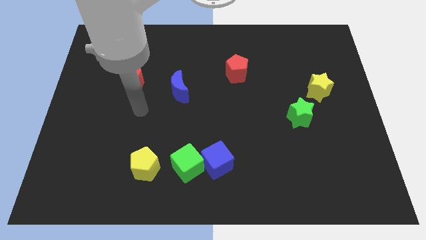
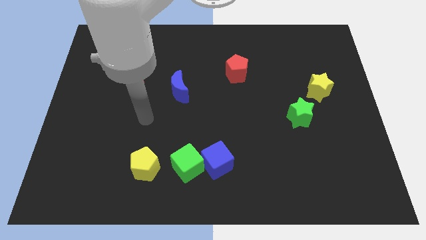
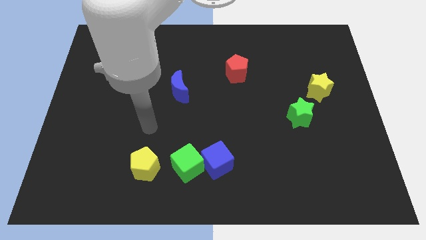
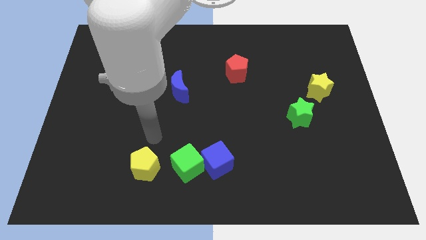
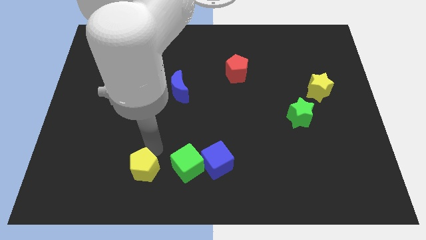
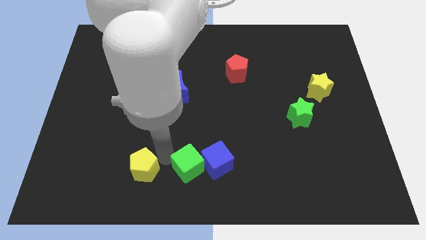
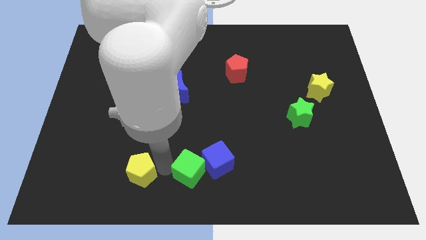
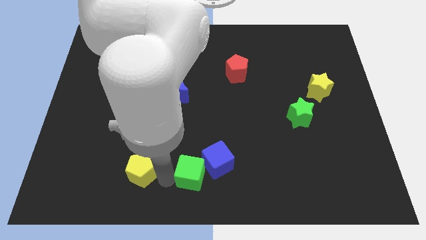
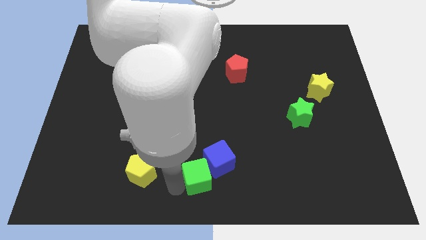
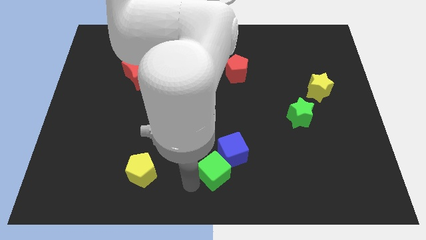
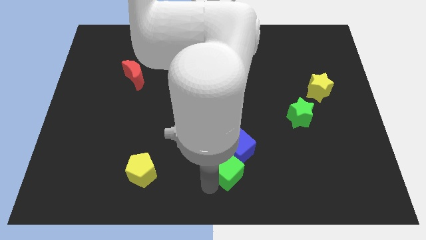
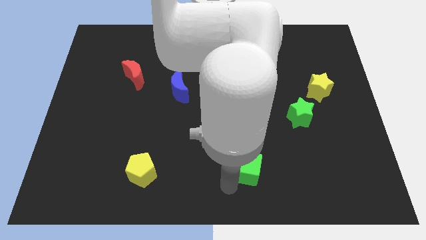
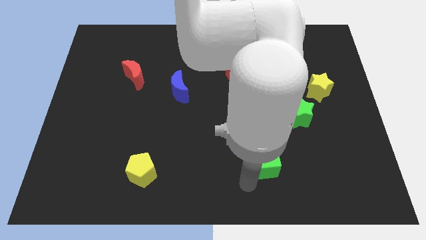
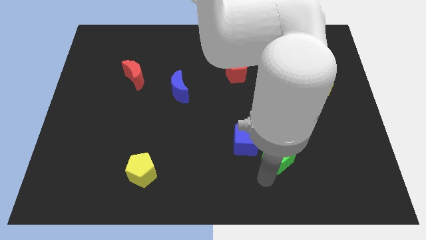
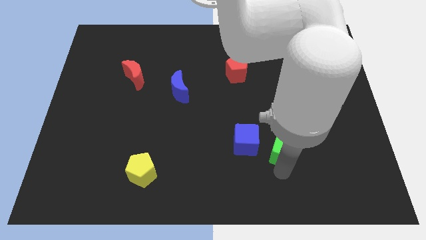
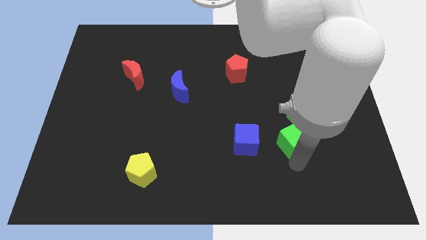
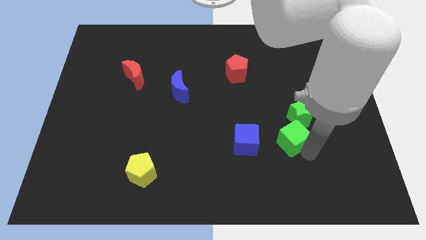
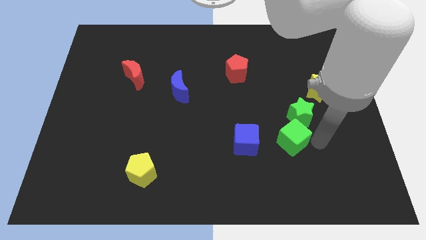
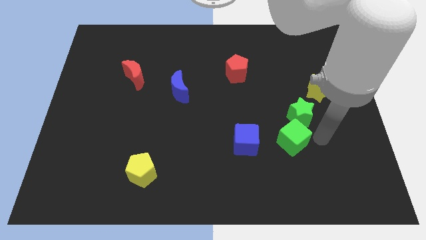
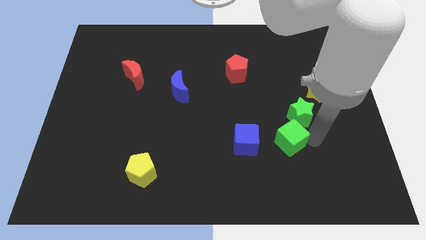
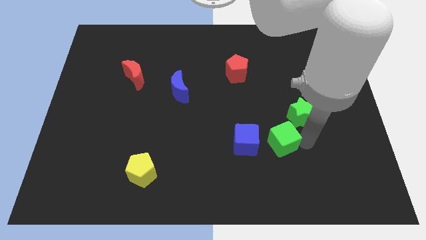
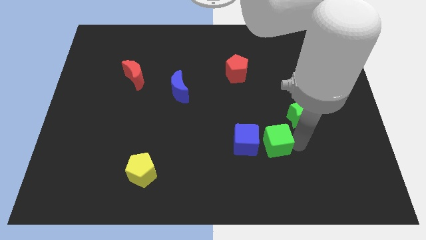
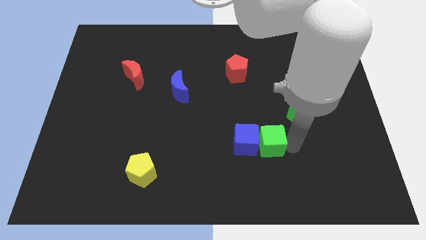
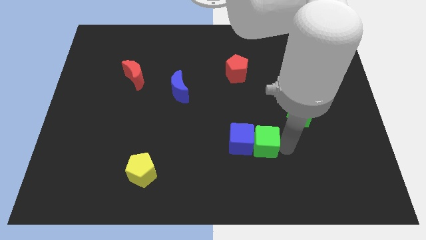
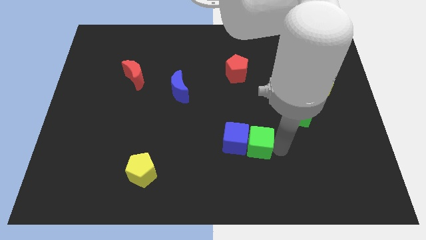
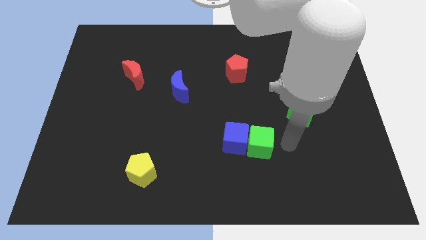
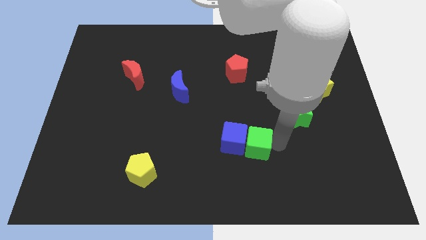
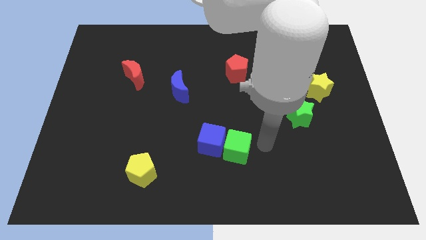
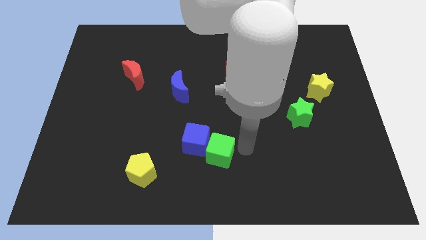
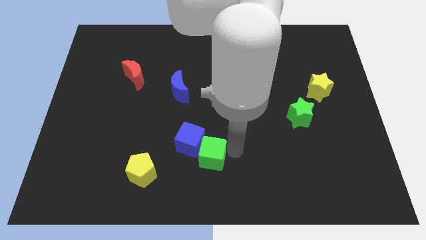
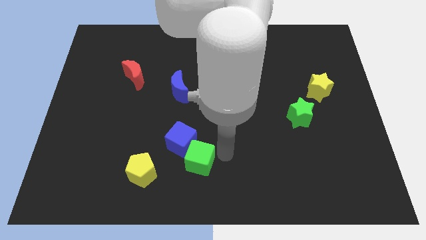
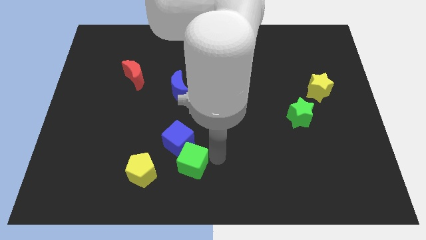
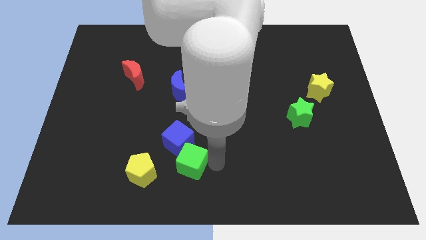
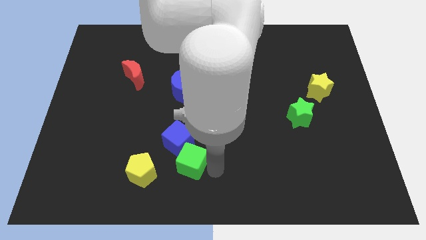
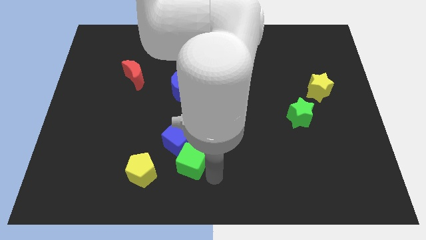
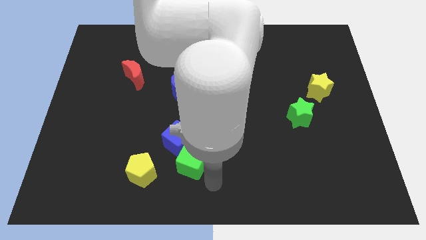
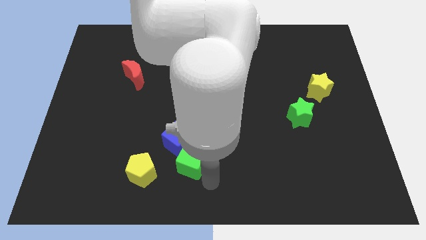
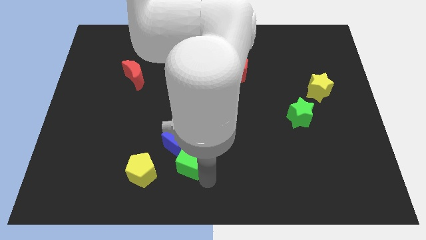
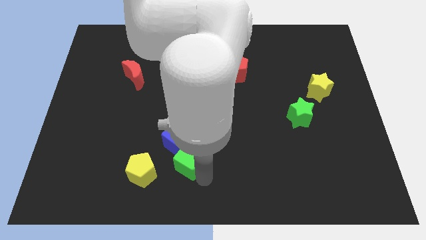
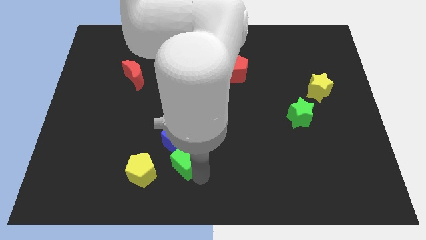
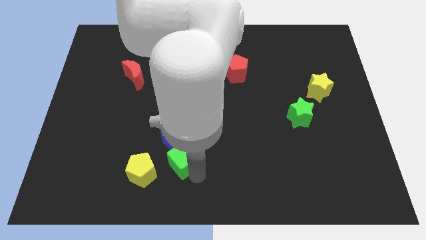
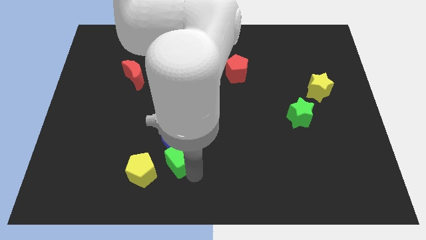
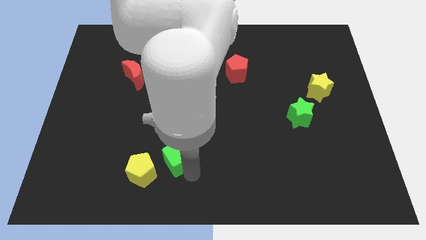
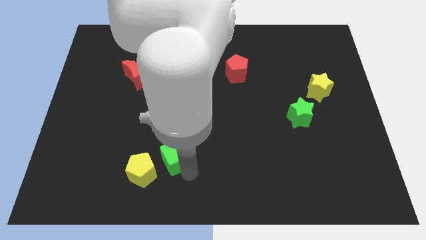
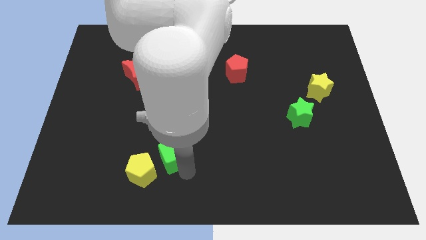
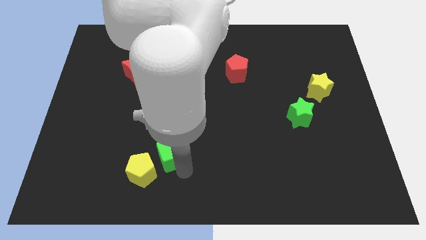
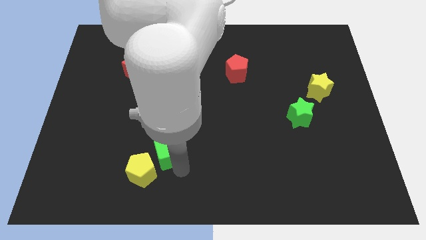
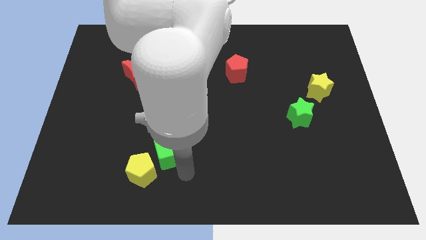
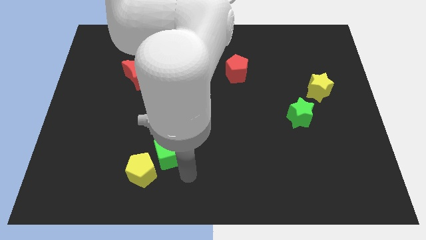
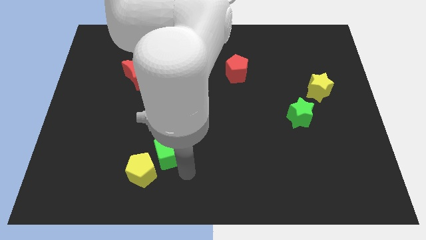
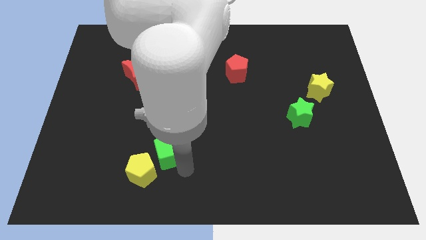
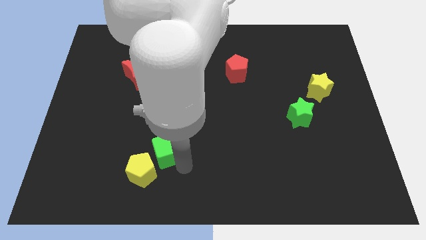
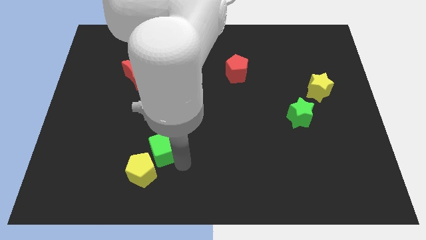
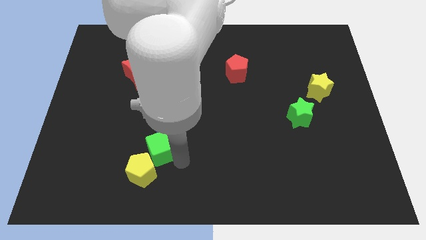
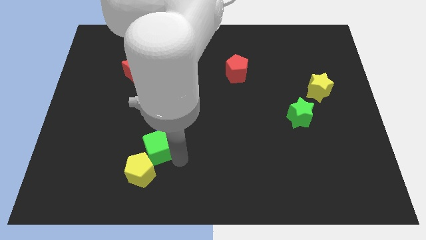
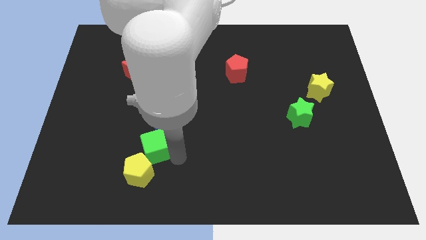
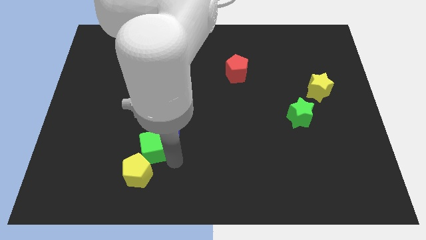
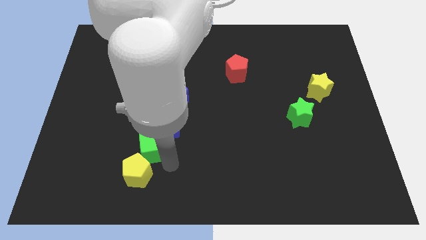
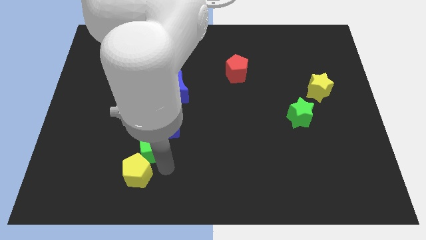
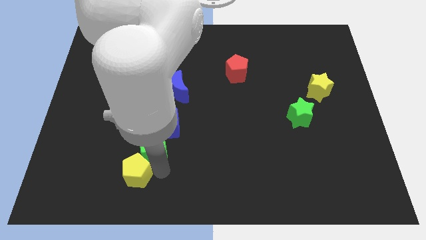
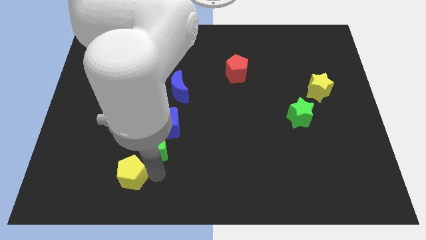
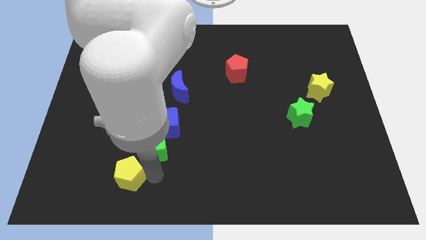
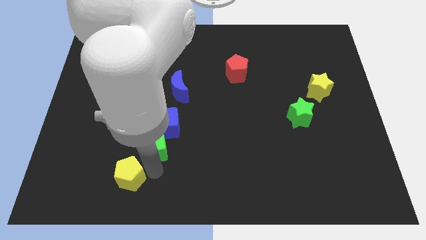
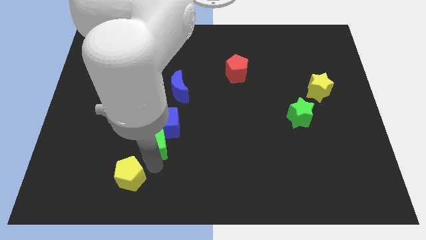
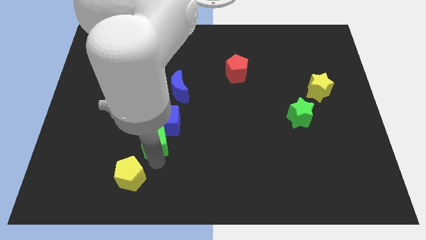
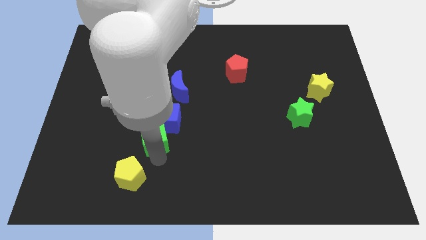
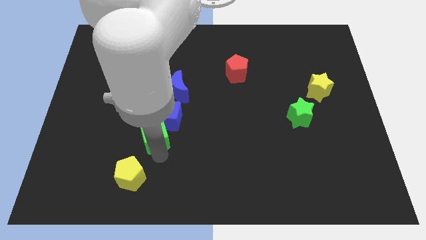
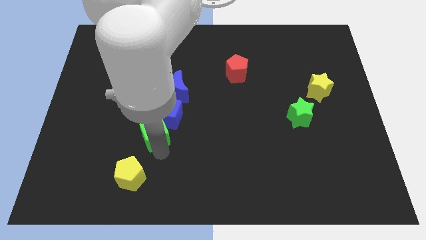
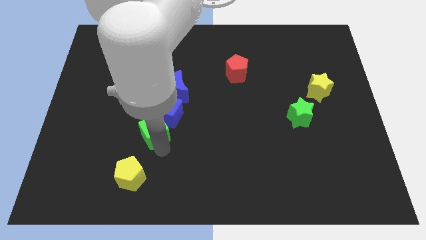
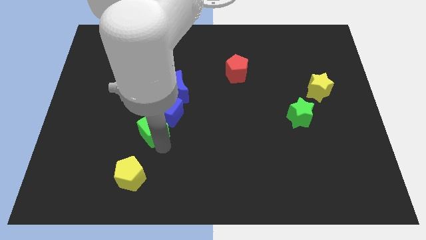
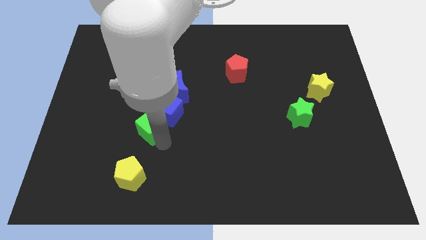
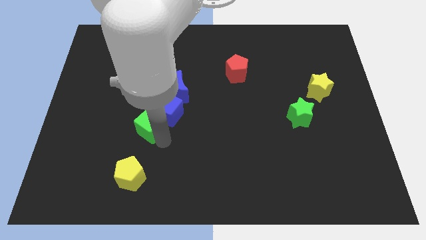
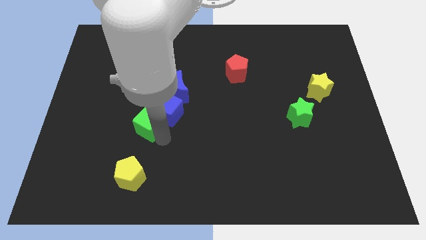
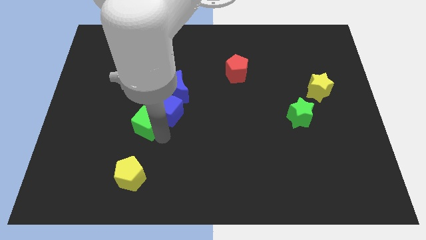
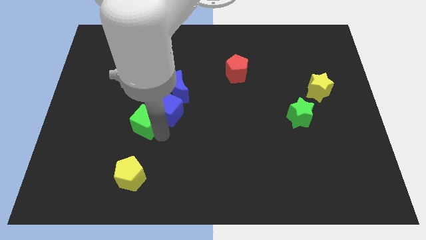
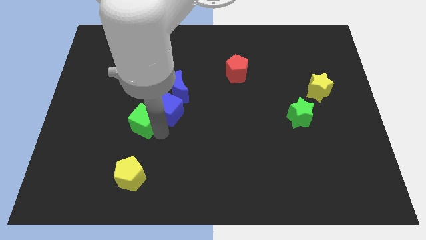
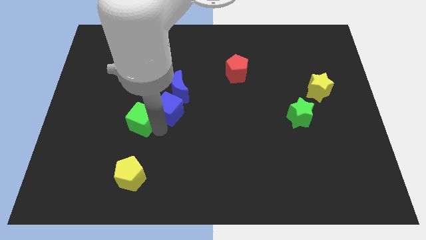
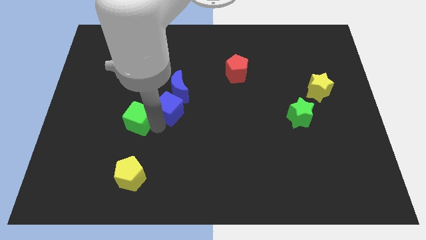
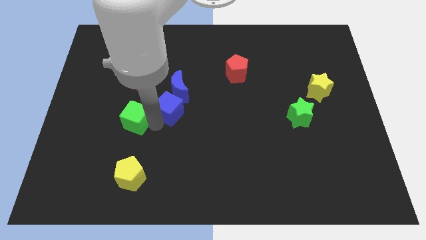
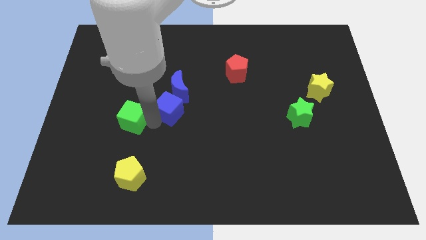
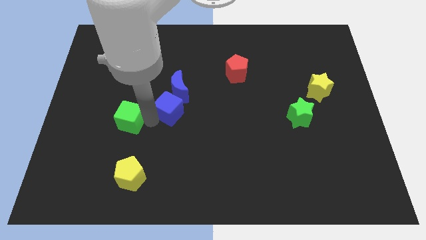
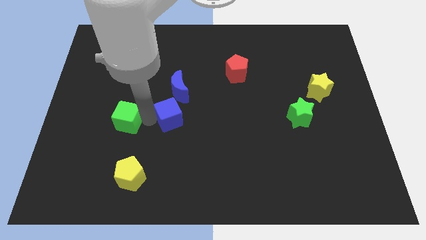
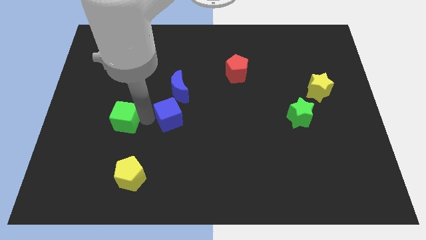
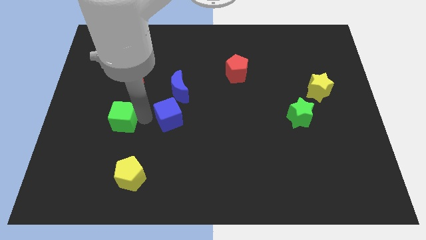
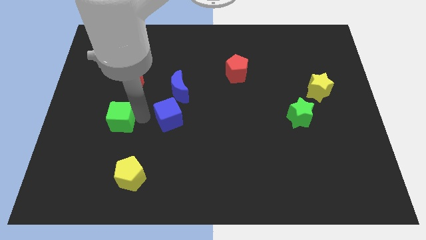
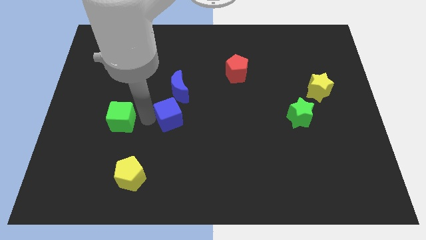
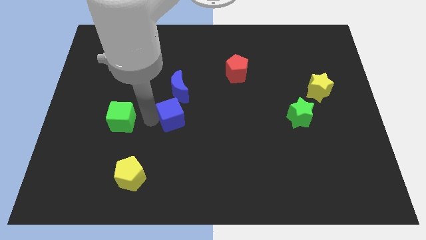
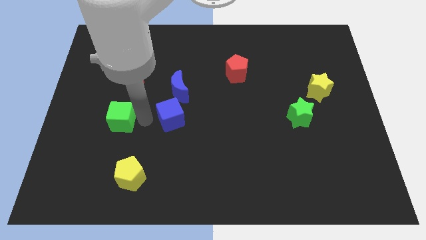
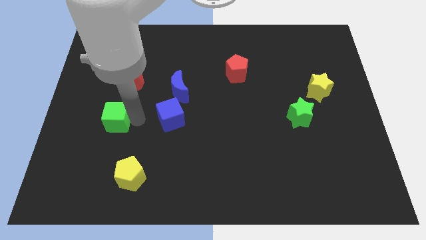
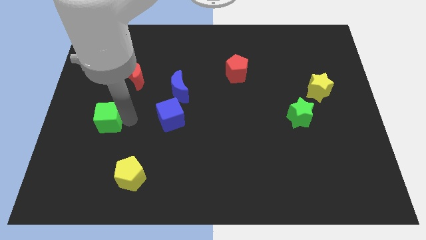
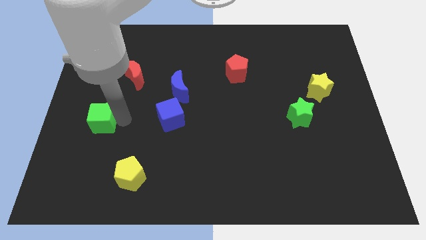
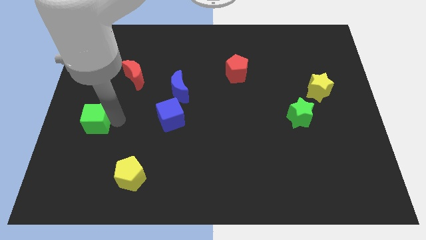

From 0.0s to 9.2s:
push the green cube to the left side of the board
